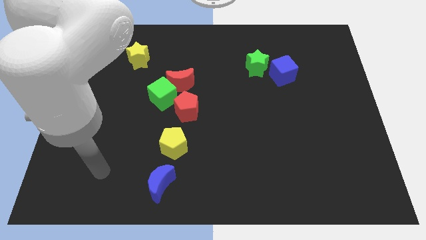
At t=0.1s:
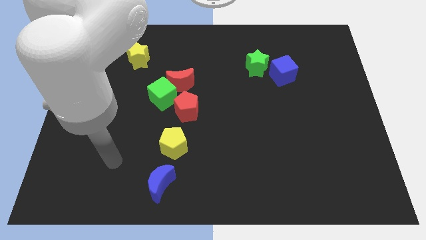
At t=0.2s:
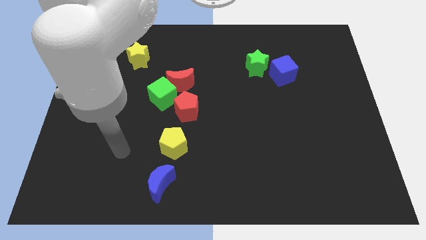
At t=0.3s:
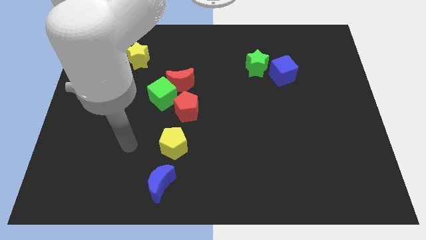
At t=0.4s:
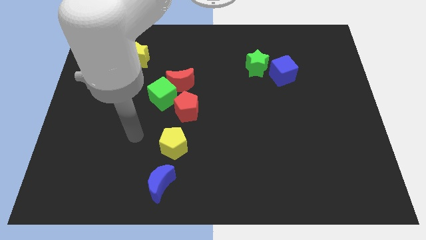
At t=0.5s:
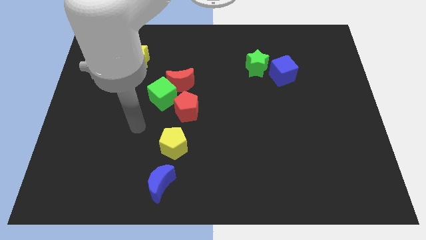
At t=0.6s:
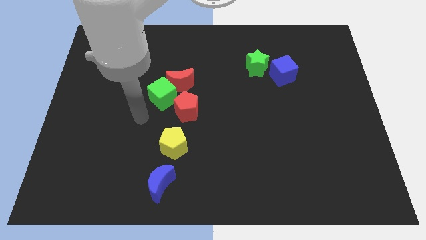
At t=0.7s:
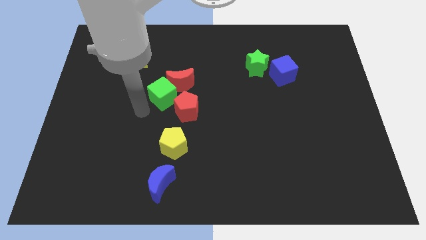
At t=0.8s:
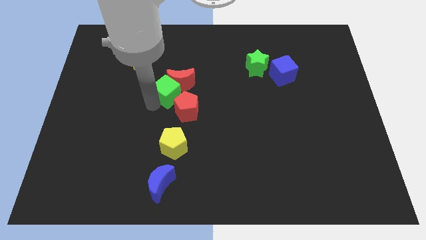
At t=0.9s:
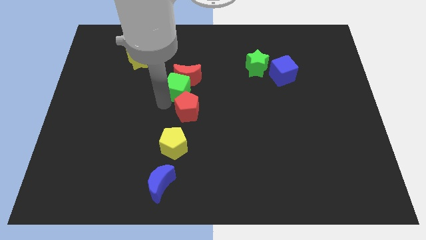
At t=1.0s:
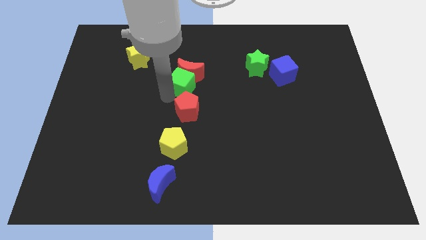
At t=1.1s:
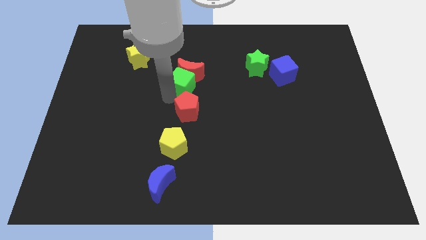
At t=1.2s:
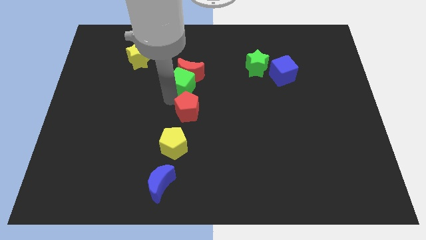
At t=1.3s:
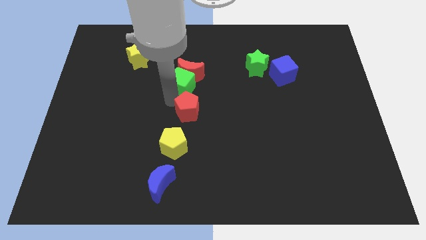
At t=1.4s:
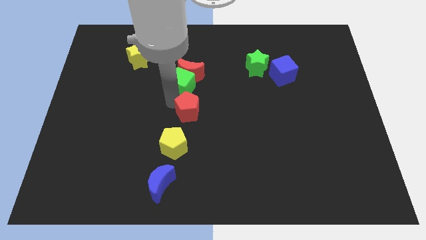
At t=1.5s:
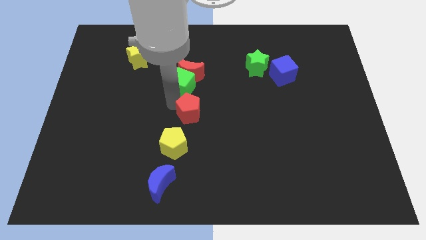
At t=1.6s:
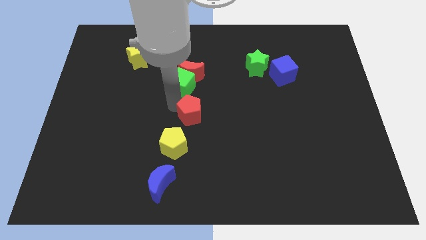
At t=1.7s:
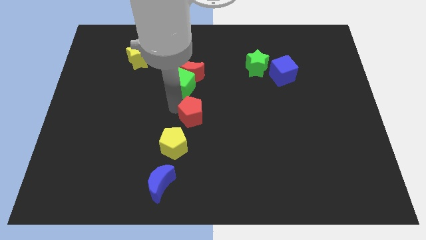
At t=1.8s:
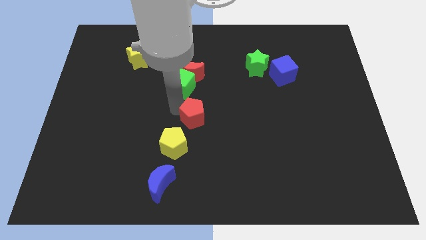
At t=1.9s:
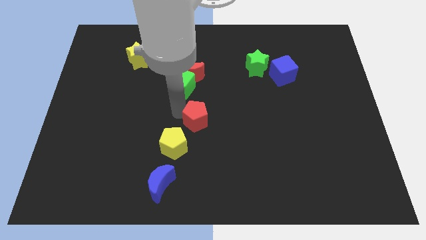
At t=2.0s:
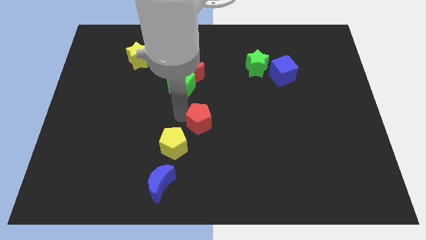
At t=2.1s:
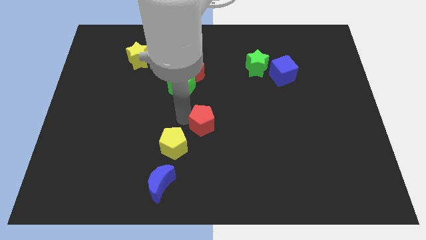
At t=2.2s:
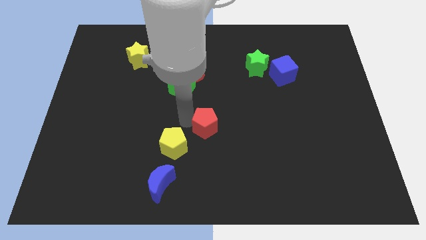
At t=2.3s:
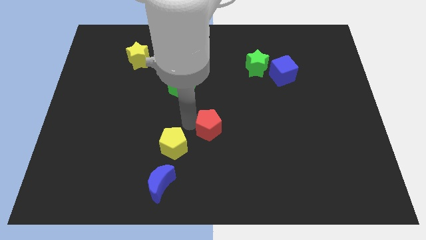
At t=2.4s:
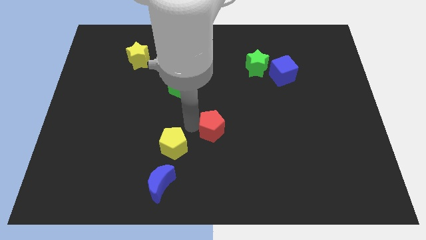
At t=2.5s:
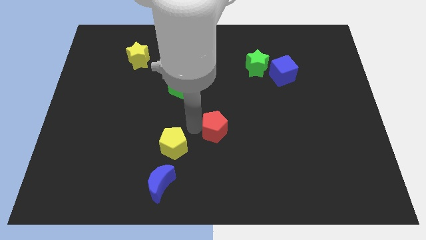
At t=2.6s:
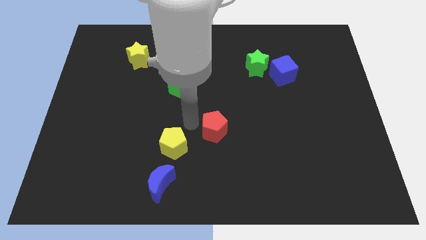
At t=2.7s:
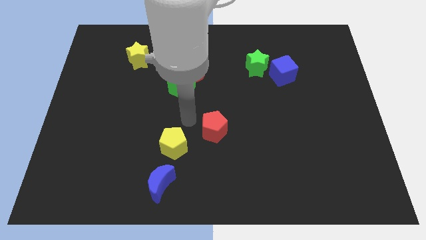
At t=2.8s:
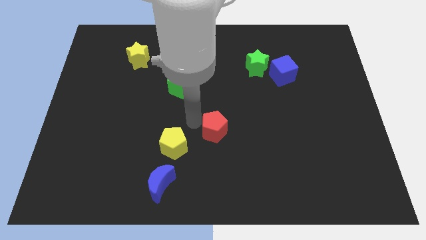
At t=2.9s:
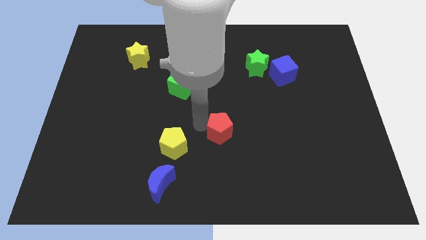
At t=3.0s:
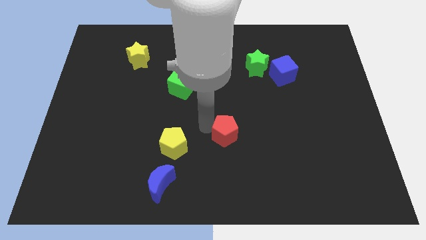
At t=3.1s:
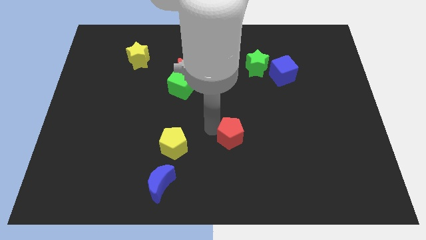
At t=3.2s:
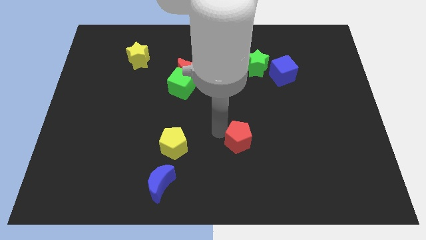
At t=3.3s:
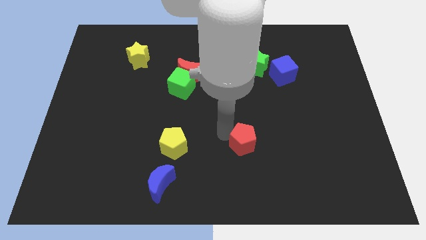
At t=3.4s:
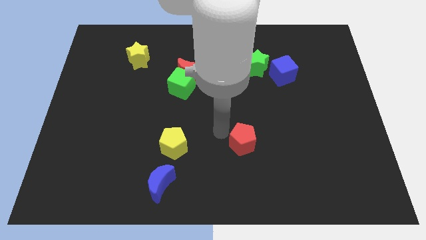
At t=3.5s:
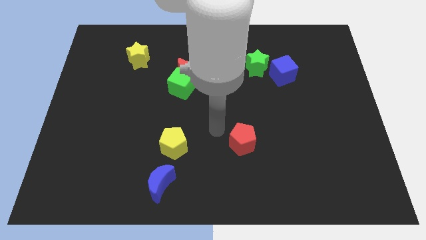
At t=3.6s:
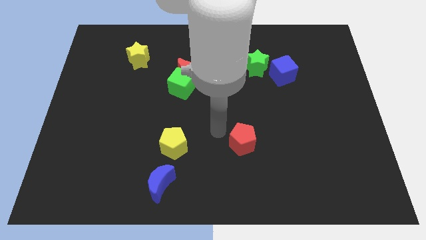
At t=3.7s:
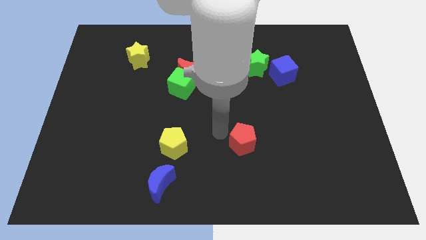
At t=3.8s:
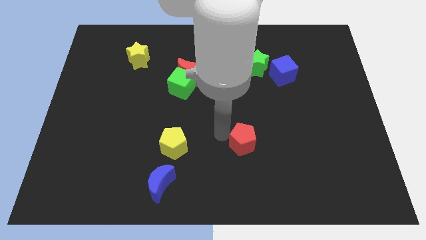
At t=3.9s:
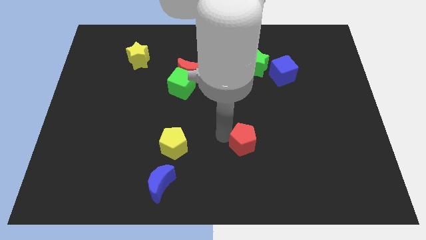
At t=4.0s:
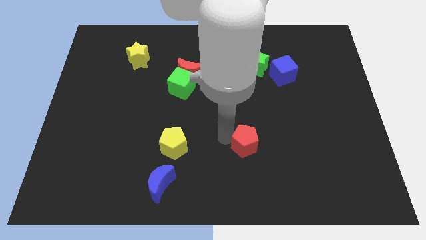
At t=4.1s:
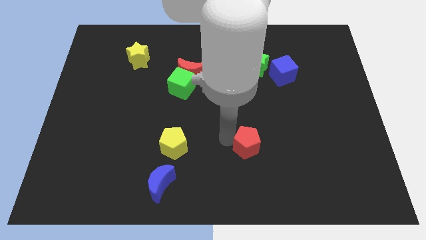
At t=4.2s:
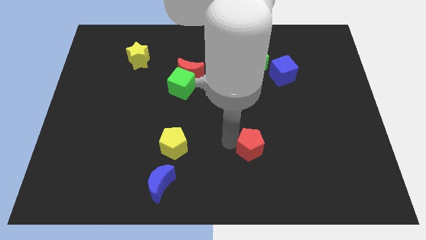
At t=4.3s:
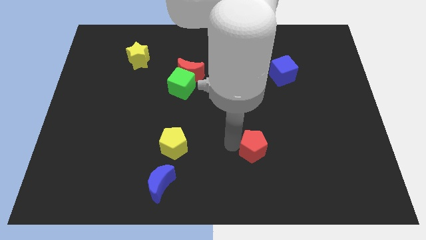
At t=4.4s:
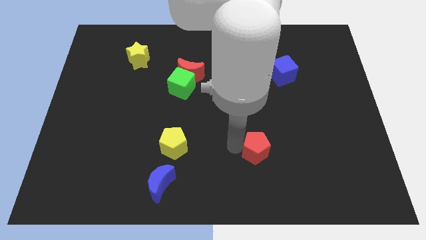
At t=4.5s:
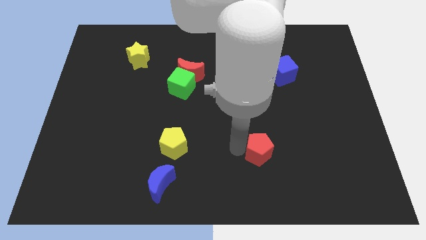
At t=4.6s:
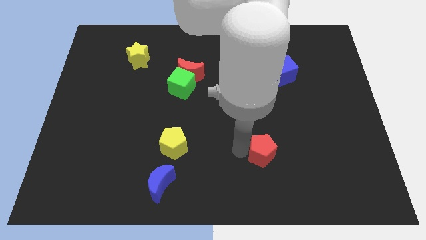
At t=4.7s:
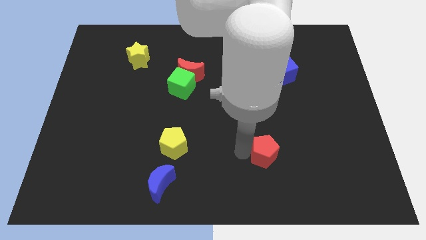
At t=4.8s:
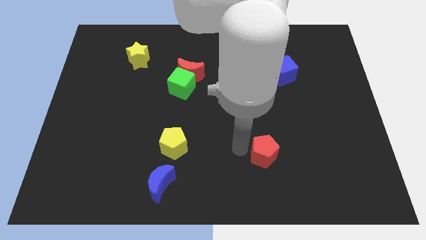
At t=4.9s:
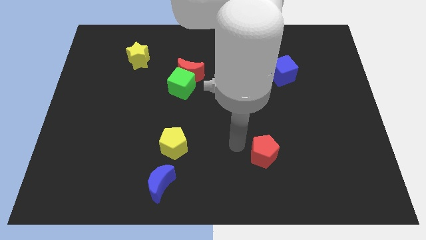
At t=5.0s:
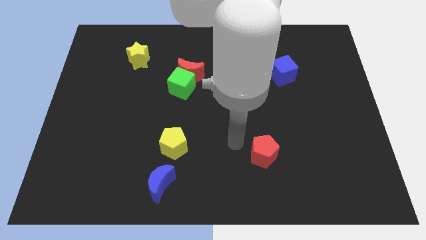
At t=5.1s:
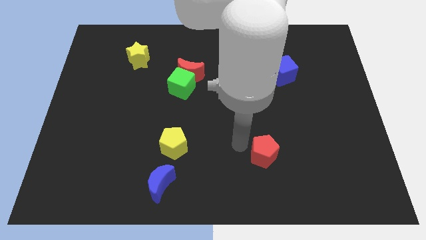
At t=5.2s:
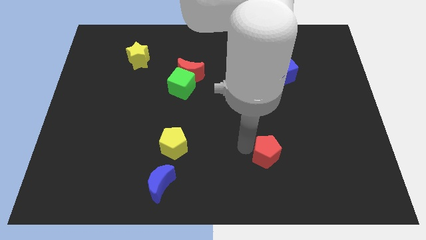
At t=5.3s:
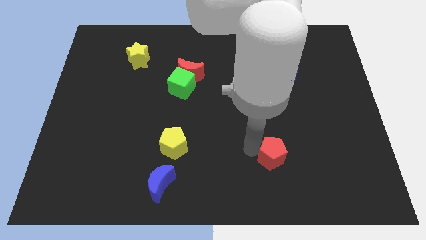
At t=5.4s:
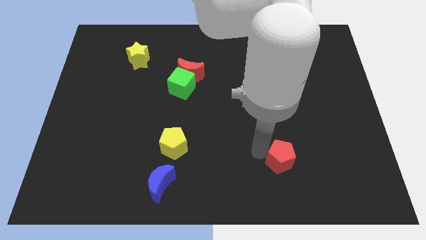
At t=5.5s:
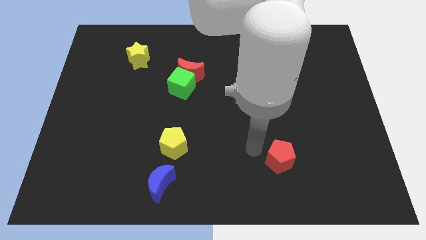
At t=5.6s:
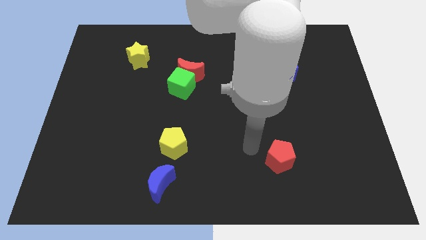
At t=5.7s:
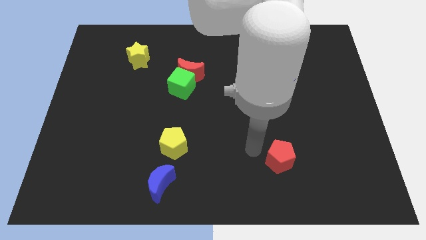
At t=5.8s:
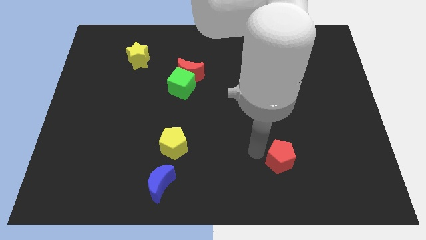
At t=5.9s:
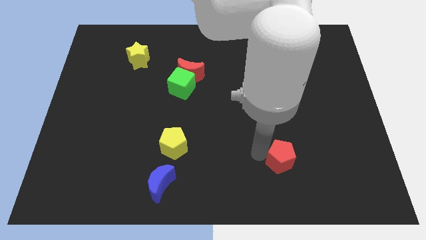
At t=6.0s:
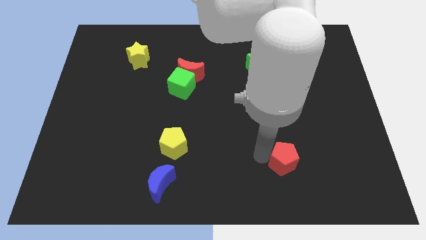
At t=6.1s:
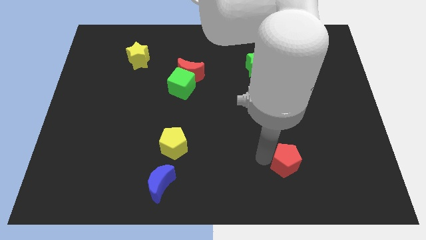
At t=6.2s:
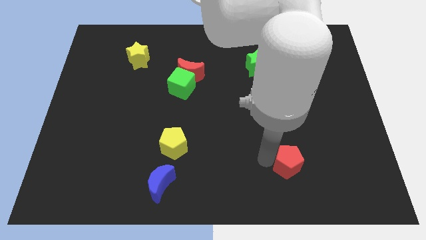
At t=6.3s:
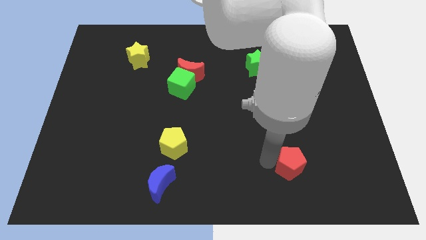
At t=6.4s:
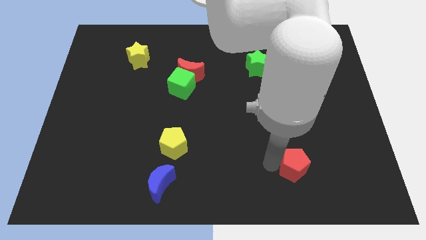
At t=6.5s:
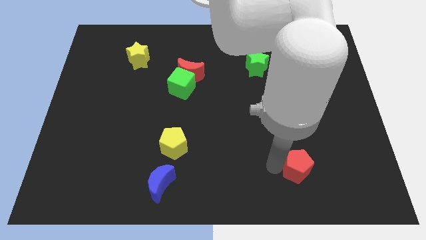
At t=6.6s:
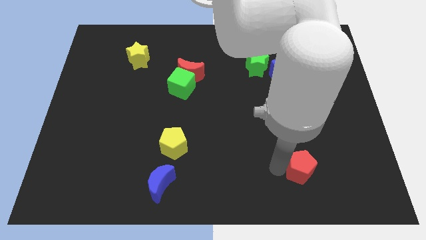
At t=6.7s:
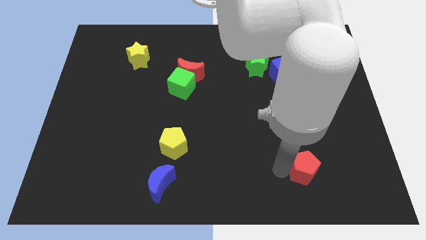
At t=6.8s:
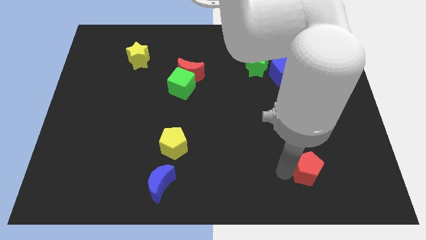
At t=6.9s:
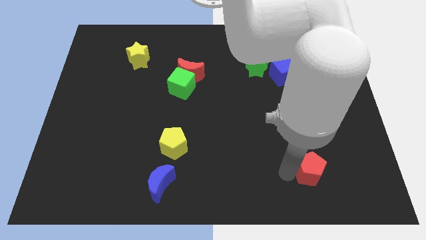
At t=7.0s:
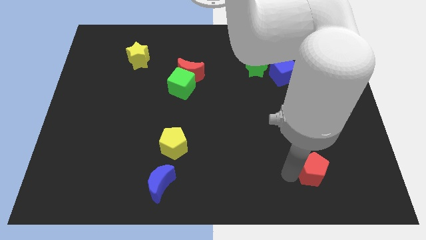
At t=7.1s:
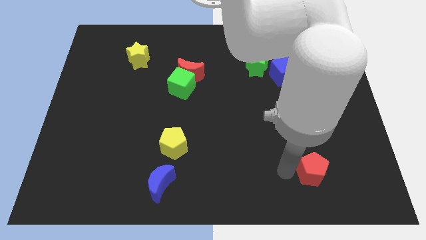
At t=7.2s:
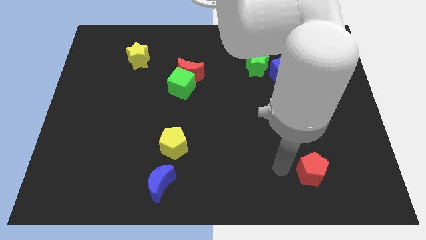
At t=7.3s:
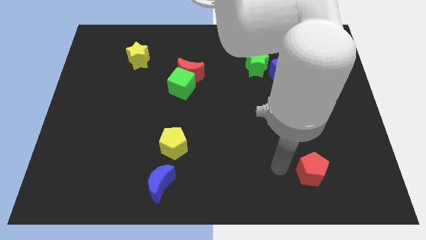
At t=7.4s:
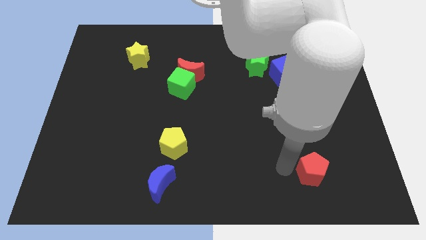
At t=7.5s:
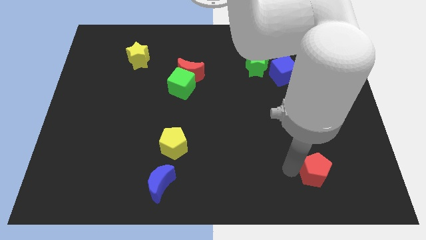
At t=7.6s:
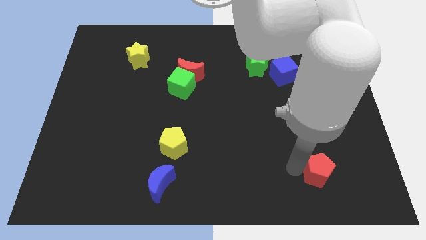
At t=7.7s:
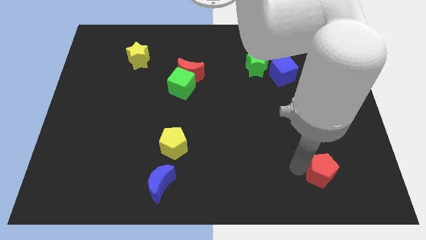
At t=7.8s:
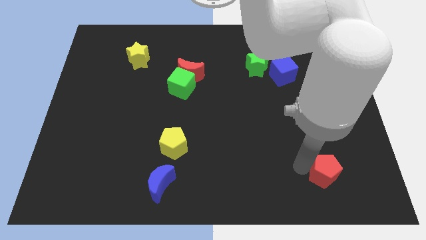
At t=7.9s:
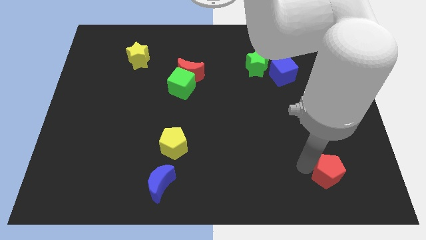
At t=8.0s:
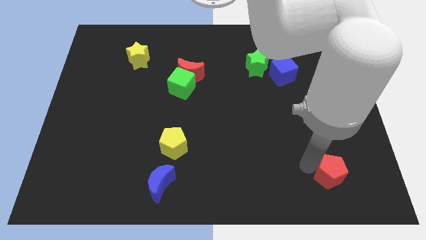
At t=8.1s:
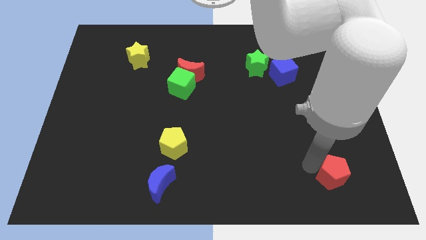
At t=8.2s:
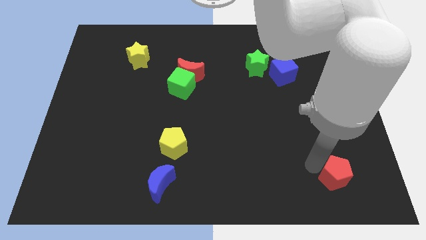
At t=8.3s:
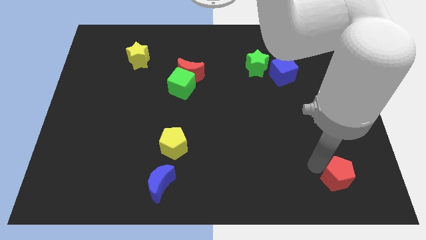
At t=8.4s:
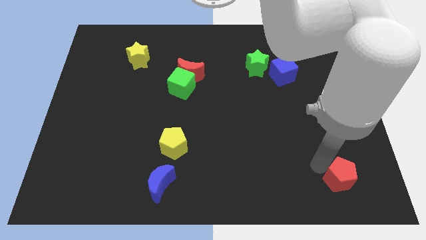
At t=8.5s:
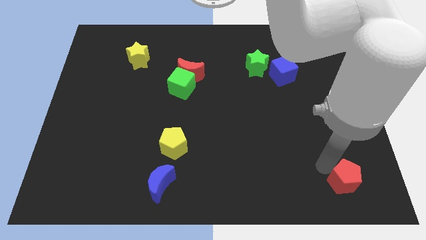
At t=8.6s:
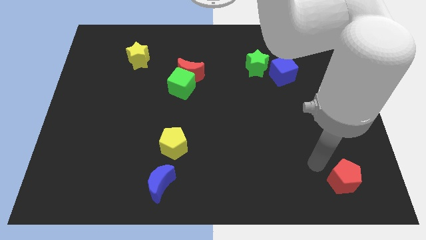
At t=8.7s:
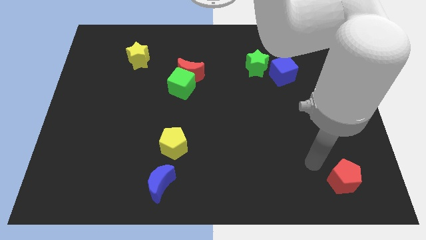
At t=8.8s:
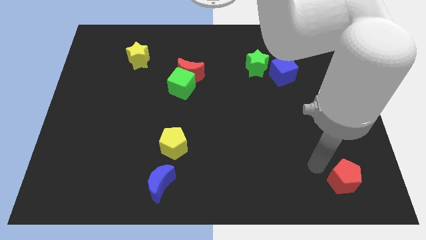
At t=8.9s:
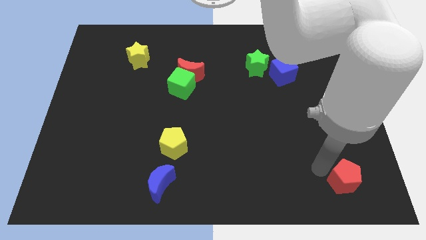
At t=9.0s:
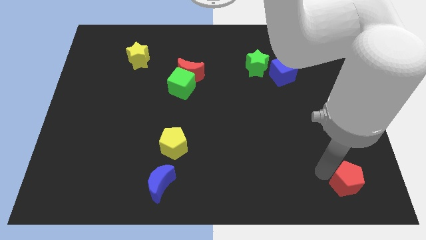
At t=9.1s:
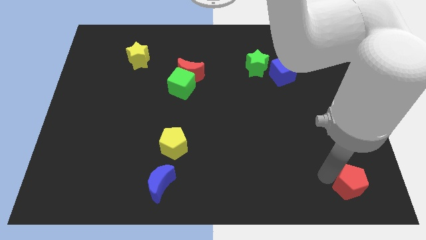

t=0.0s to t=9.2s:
put the red pentagon to the lower right corner
